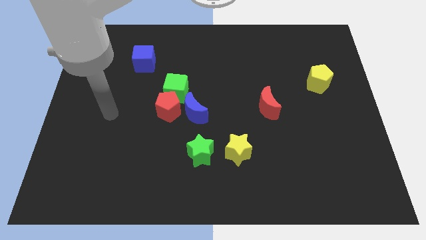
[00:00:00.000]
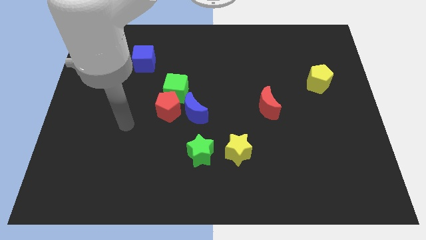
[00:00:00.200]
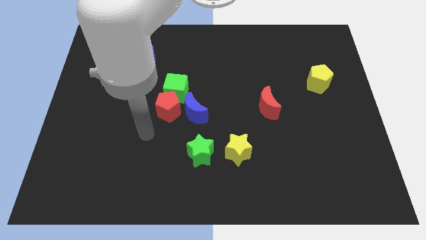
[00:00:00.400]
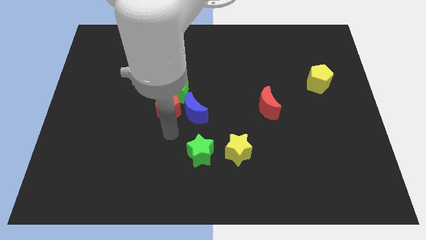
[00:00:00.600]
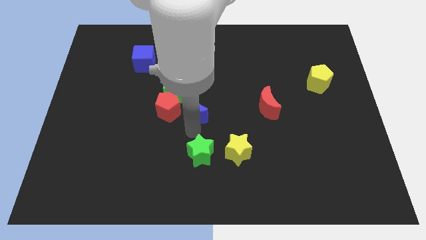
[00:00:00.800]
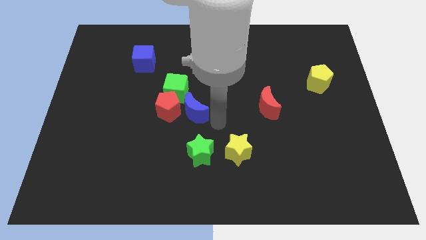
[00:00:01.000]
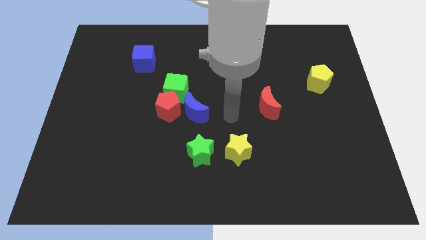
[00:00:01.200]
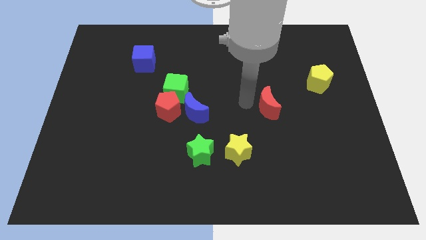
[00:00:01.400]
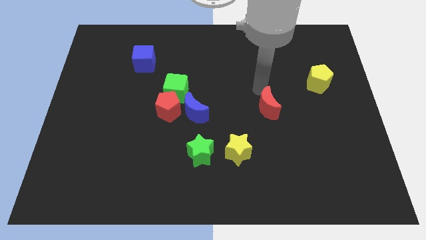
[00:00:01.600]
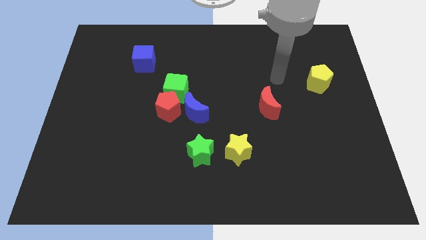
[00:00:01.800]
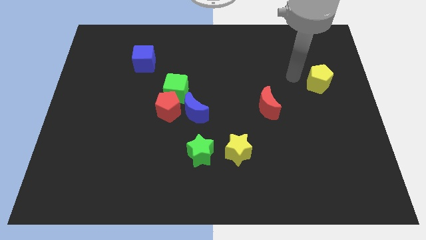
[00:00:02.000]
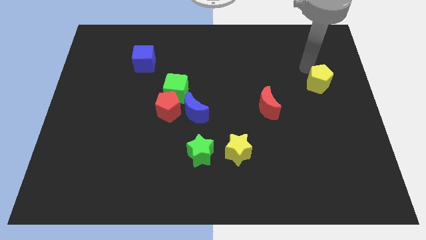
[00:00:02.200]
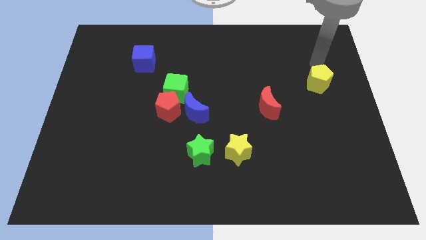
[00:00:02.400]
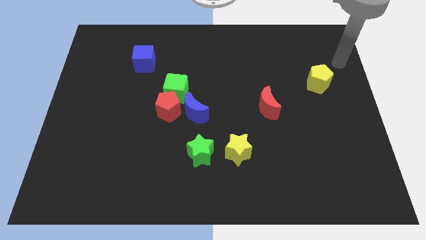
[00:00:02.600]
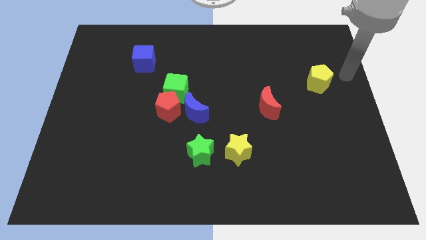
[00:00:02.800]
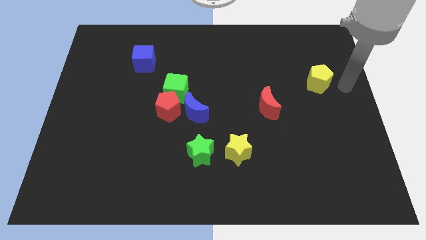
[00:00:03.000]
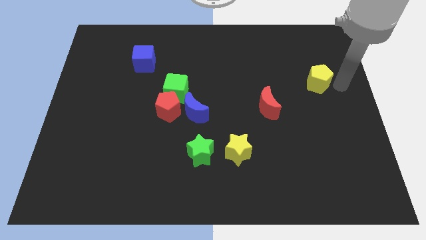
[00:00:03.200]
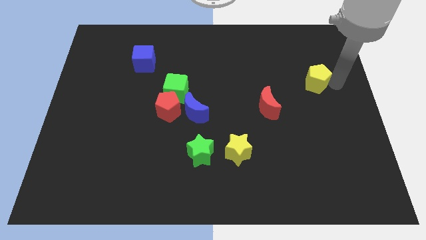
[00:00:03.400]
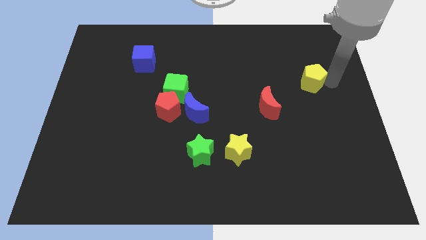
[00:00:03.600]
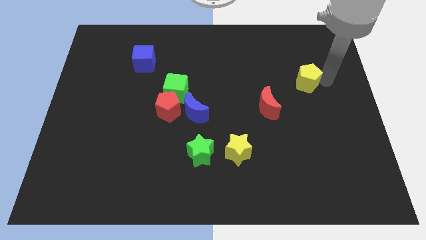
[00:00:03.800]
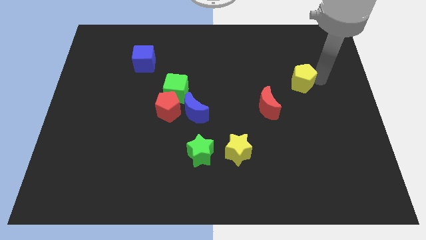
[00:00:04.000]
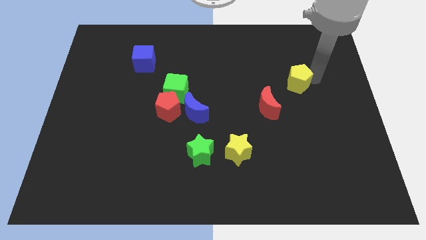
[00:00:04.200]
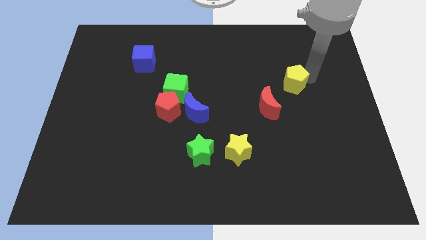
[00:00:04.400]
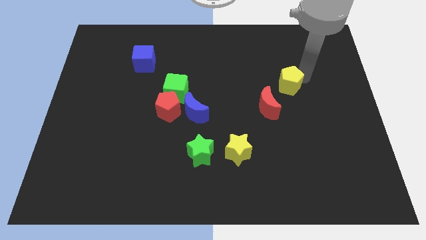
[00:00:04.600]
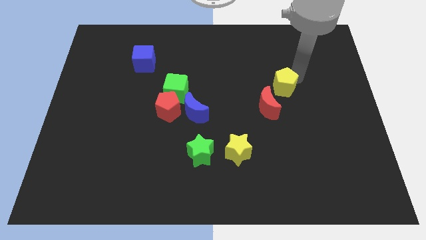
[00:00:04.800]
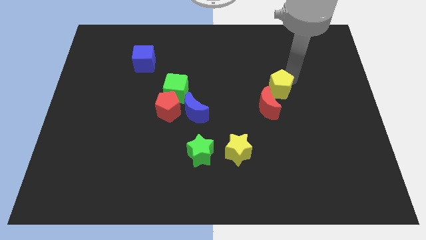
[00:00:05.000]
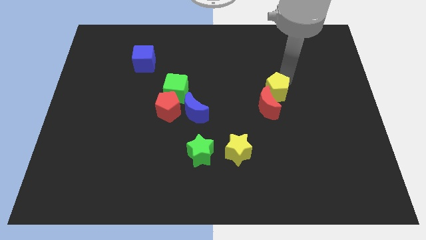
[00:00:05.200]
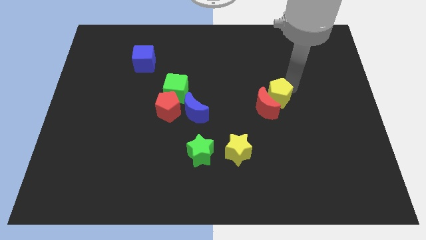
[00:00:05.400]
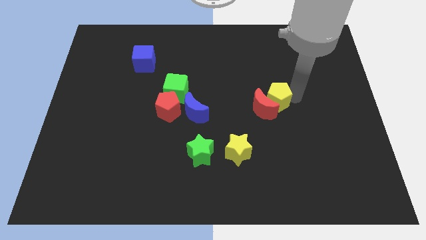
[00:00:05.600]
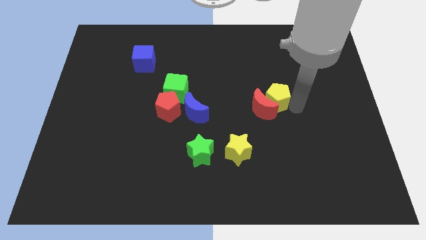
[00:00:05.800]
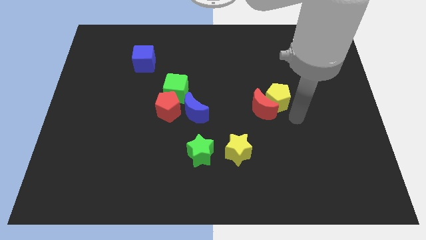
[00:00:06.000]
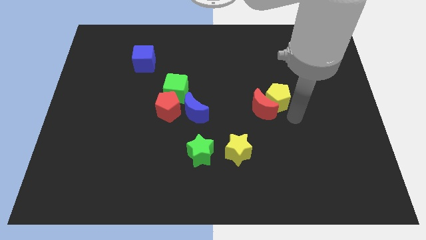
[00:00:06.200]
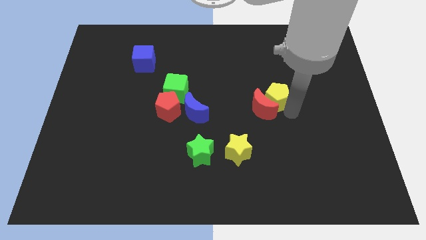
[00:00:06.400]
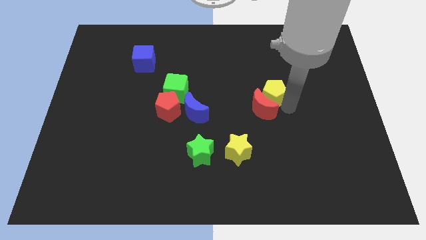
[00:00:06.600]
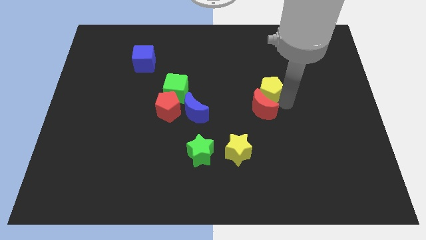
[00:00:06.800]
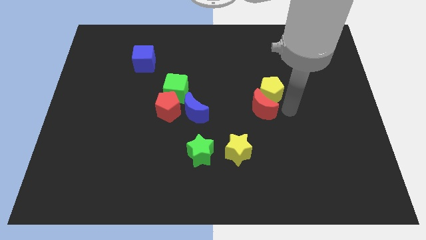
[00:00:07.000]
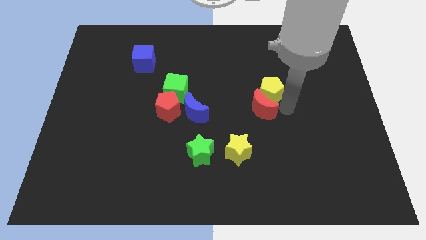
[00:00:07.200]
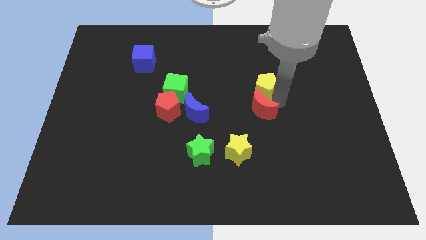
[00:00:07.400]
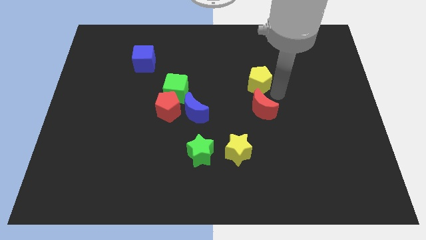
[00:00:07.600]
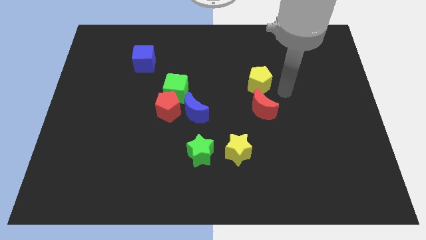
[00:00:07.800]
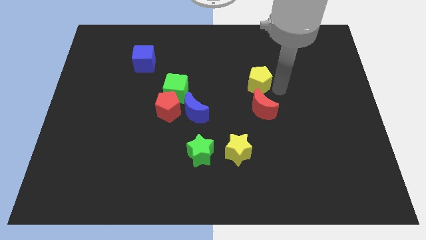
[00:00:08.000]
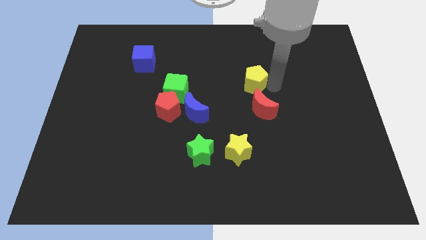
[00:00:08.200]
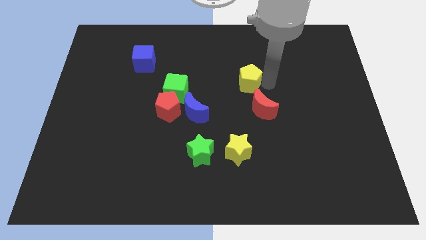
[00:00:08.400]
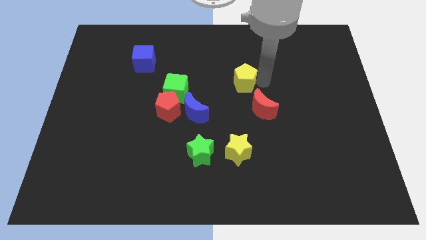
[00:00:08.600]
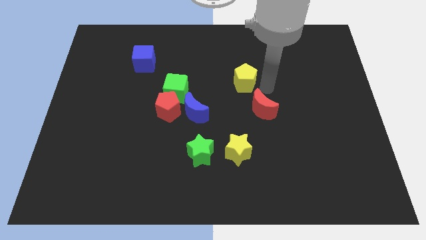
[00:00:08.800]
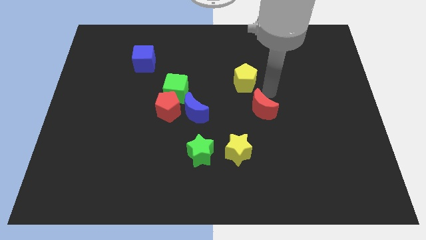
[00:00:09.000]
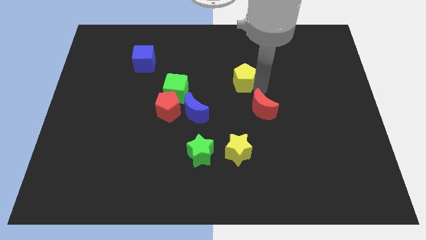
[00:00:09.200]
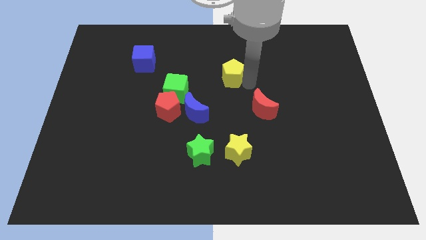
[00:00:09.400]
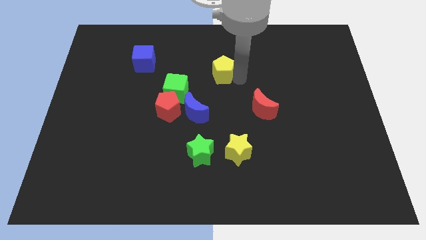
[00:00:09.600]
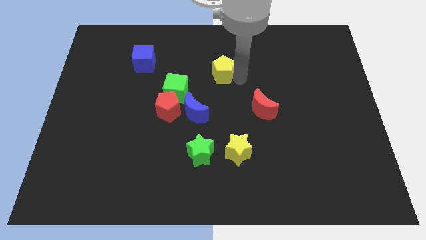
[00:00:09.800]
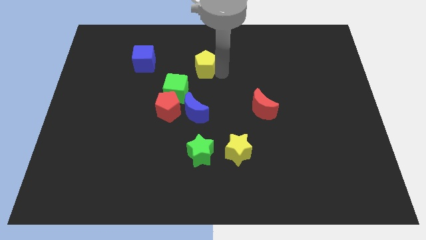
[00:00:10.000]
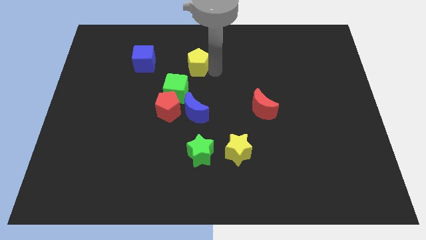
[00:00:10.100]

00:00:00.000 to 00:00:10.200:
push the yellow pentagon to the right of the blue cube

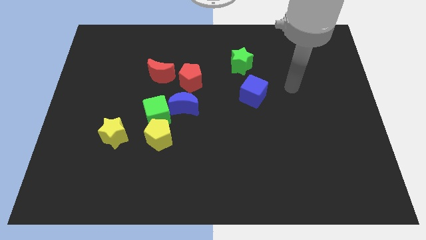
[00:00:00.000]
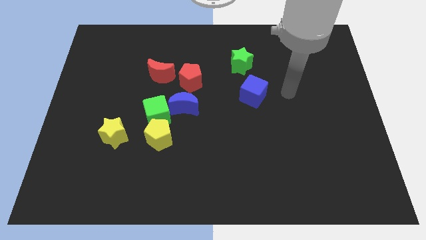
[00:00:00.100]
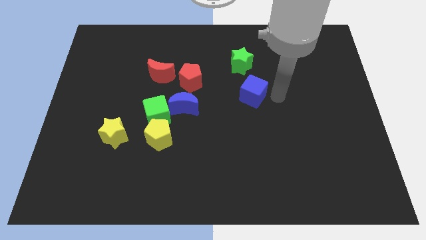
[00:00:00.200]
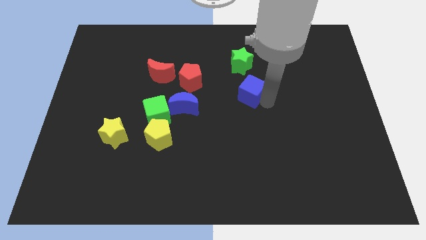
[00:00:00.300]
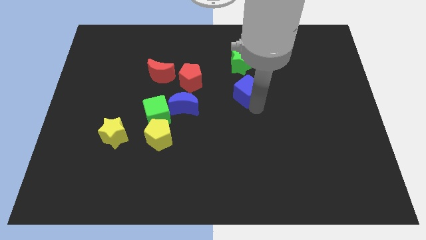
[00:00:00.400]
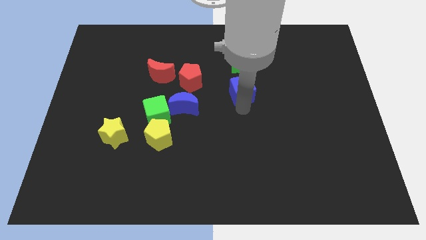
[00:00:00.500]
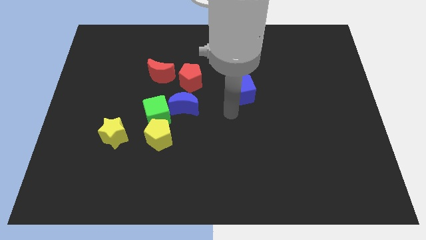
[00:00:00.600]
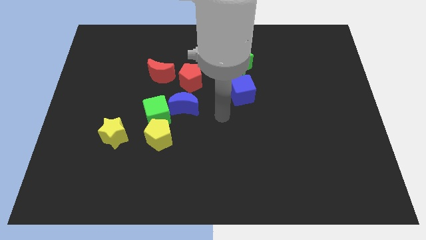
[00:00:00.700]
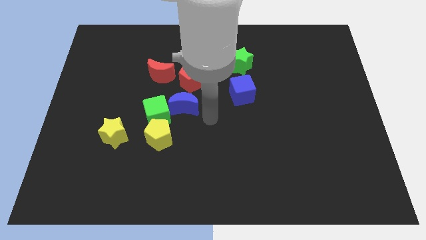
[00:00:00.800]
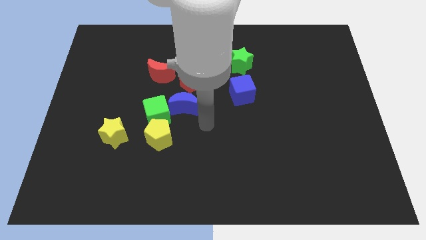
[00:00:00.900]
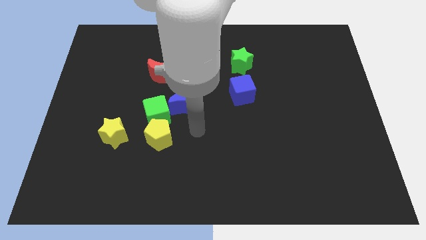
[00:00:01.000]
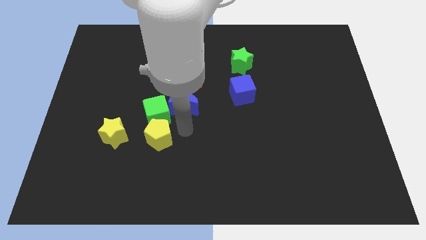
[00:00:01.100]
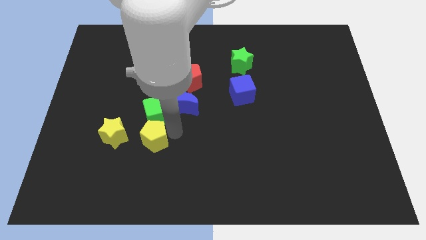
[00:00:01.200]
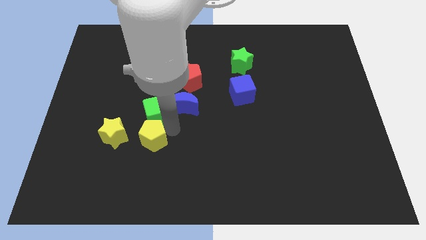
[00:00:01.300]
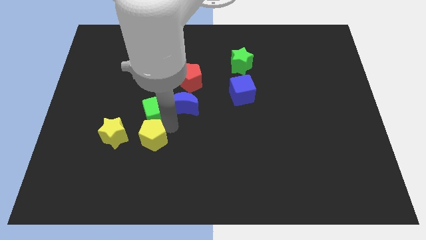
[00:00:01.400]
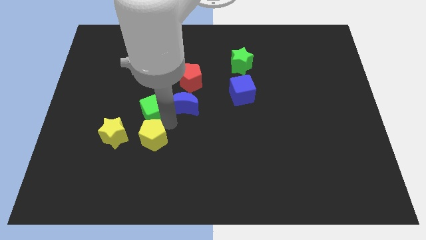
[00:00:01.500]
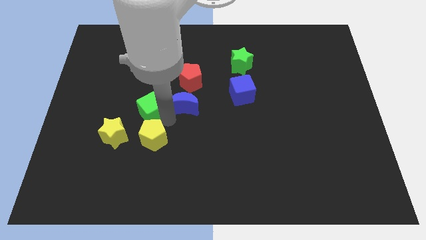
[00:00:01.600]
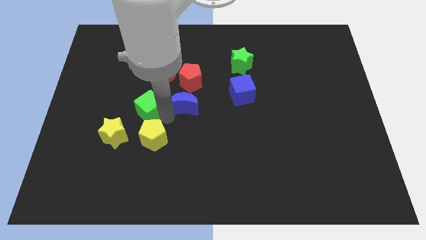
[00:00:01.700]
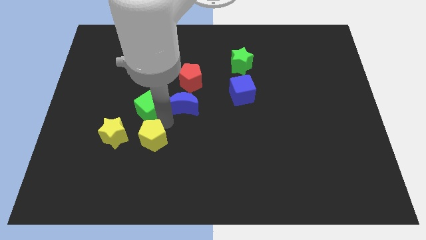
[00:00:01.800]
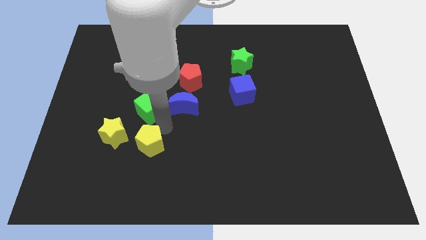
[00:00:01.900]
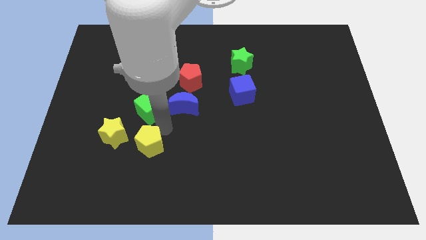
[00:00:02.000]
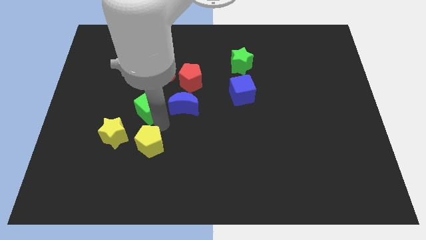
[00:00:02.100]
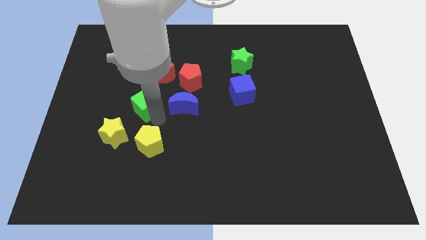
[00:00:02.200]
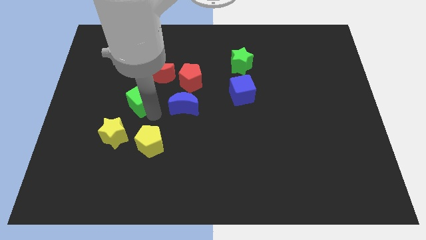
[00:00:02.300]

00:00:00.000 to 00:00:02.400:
move the green cube to the bottom left of the red moon
